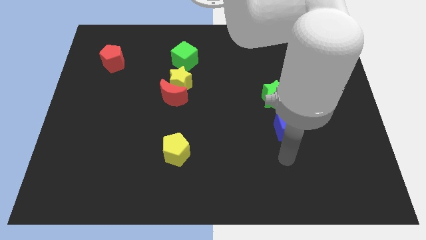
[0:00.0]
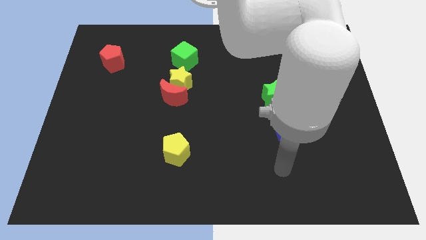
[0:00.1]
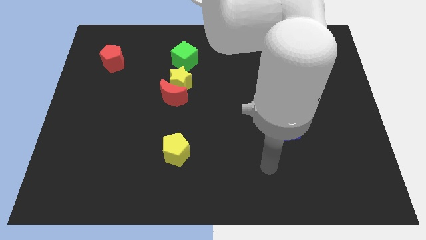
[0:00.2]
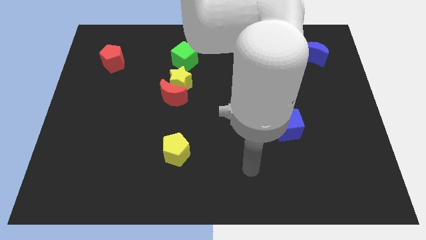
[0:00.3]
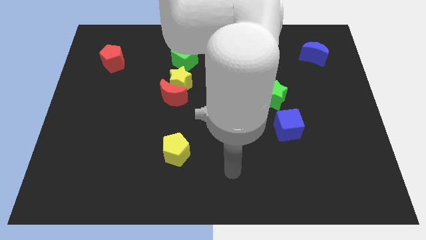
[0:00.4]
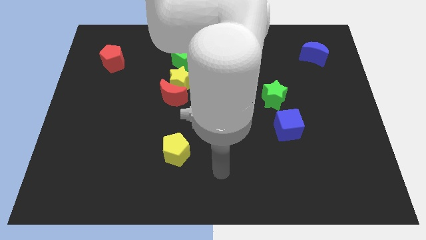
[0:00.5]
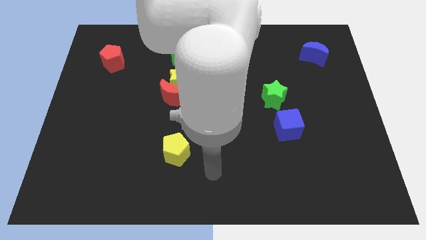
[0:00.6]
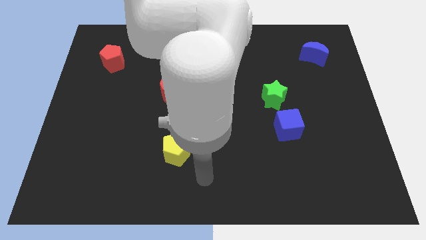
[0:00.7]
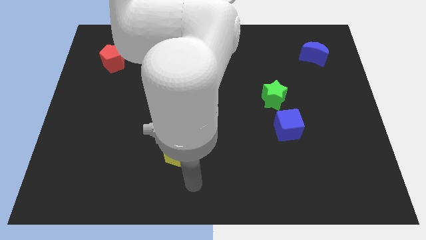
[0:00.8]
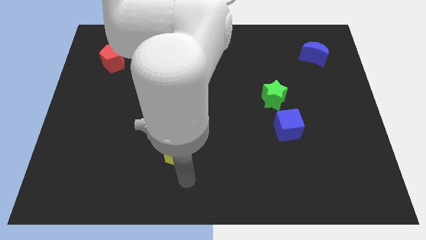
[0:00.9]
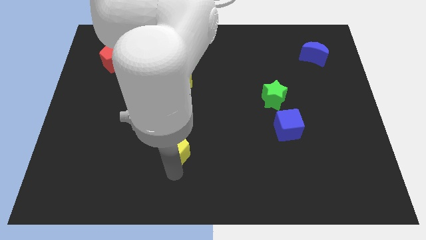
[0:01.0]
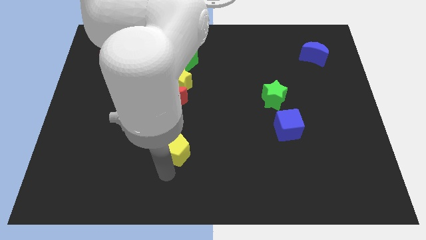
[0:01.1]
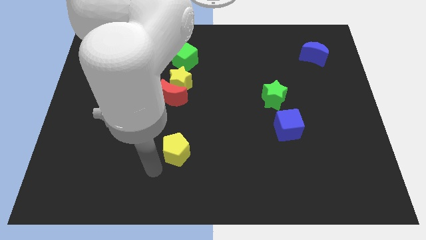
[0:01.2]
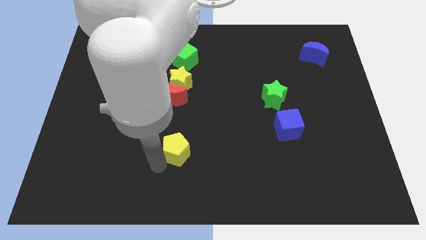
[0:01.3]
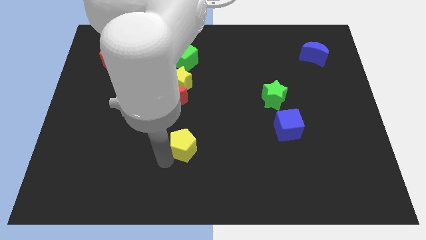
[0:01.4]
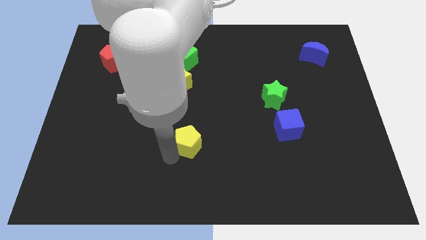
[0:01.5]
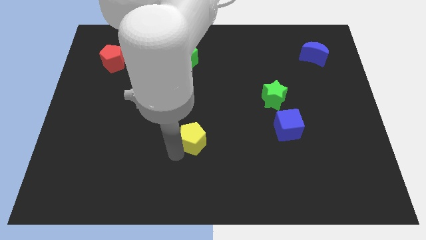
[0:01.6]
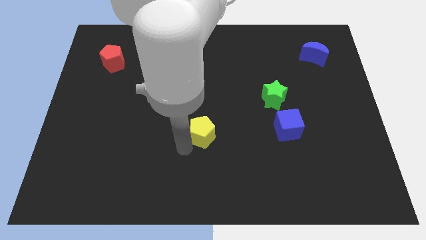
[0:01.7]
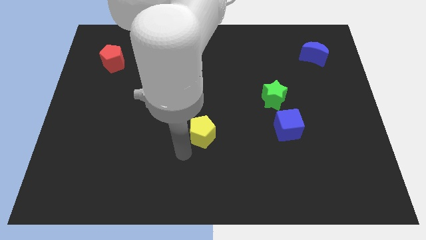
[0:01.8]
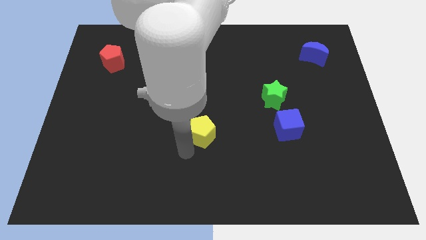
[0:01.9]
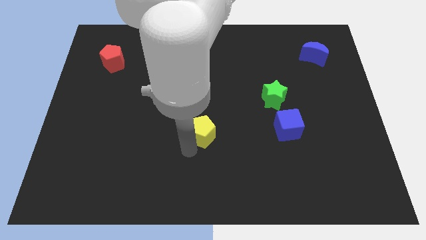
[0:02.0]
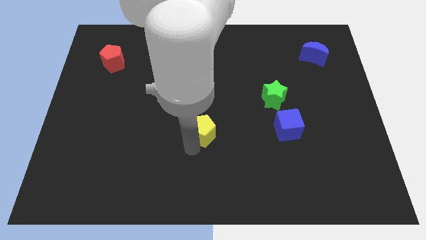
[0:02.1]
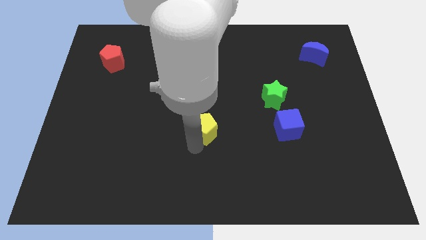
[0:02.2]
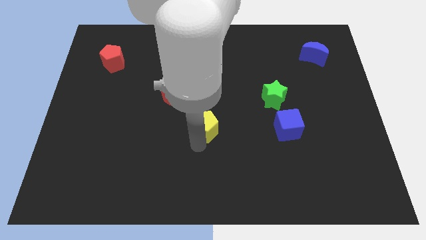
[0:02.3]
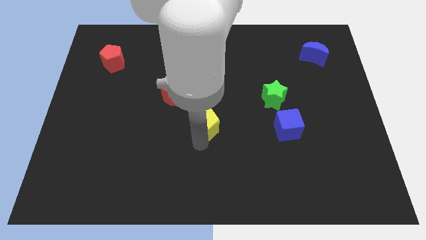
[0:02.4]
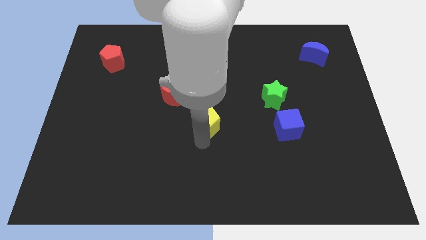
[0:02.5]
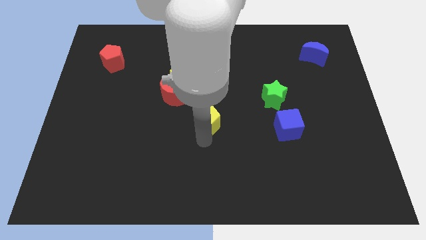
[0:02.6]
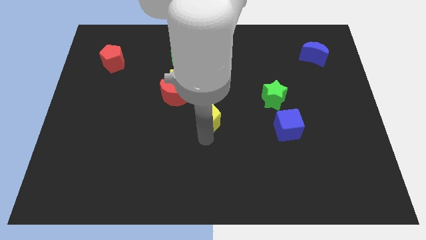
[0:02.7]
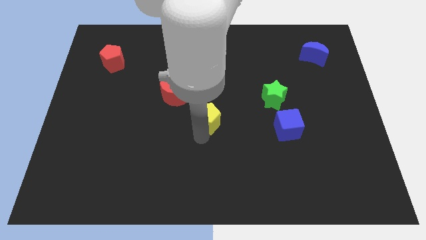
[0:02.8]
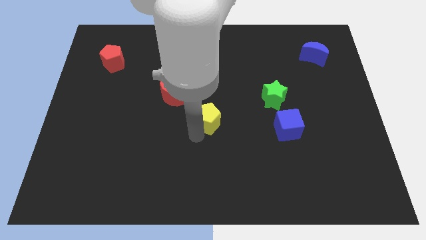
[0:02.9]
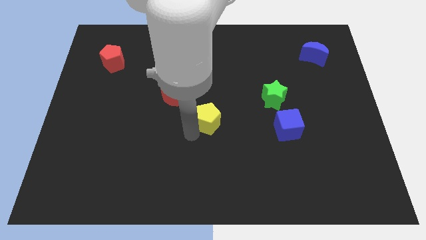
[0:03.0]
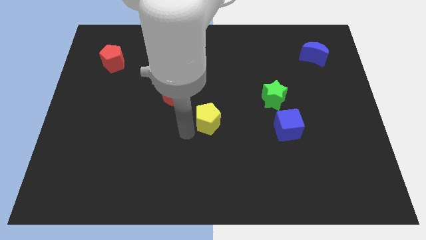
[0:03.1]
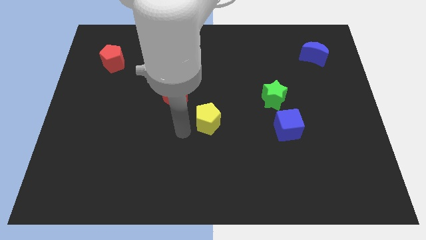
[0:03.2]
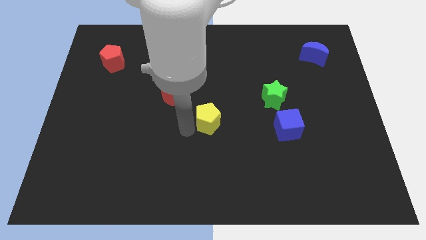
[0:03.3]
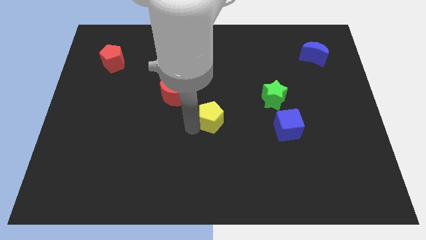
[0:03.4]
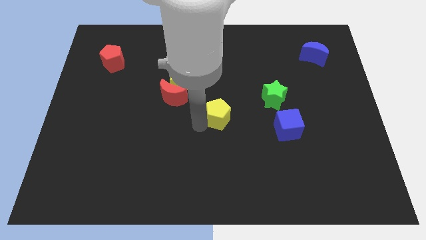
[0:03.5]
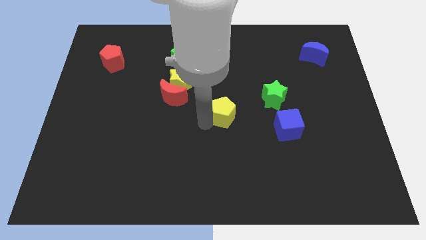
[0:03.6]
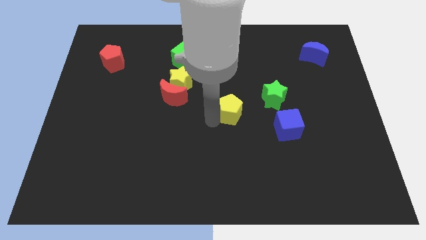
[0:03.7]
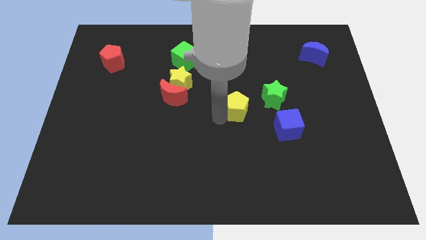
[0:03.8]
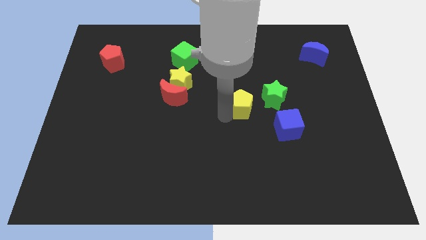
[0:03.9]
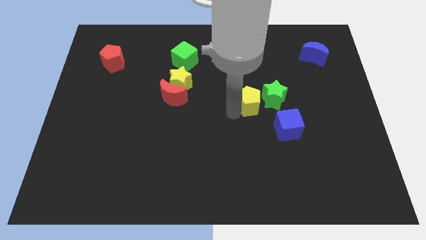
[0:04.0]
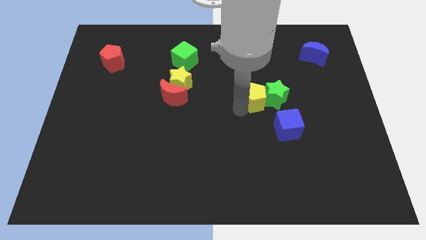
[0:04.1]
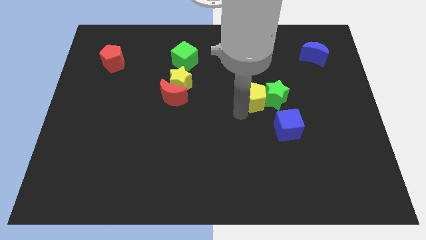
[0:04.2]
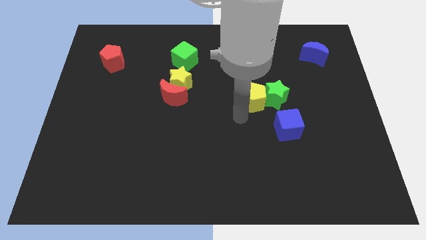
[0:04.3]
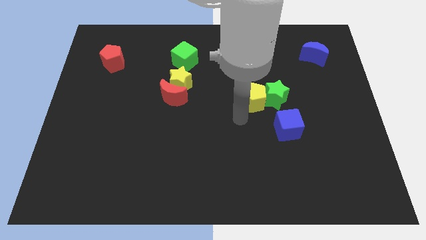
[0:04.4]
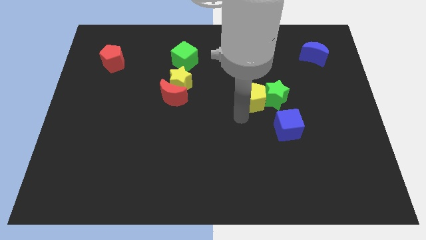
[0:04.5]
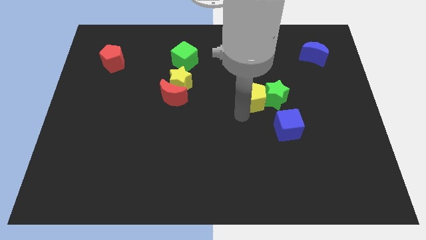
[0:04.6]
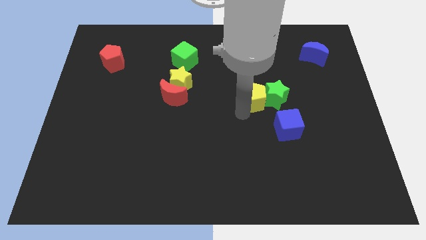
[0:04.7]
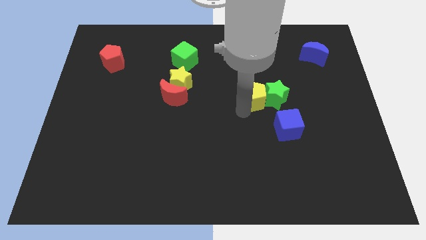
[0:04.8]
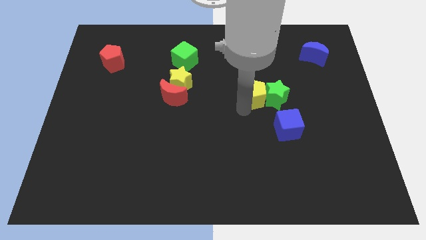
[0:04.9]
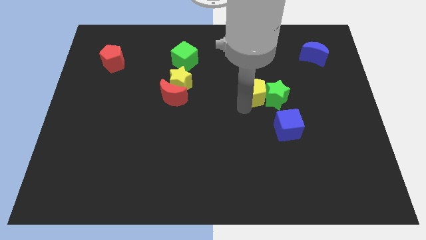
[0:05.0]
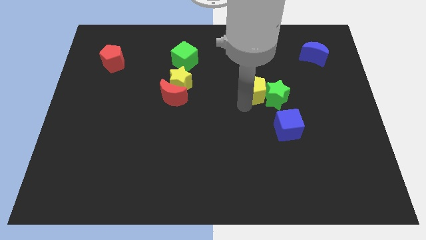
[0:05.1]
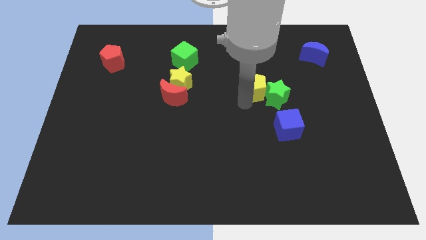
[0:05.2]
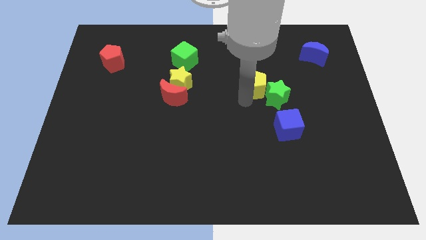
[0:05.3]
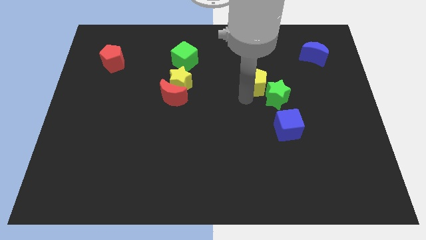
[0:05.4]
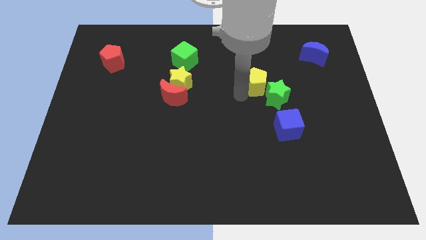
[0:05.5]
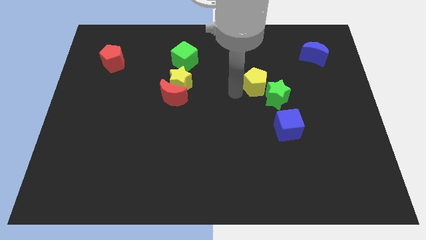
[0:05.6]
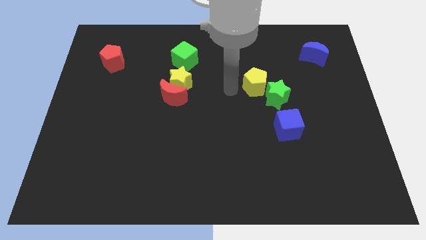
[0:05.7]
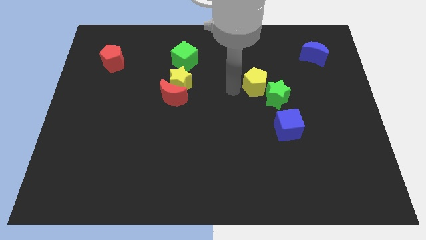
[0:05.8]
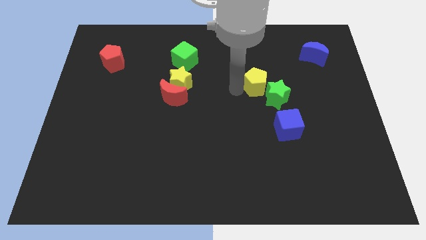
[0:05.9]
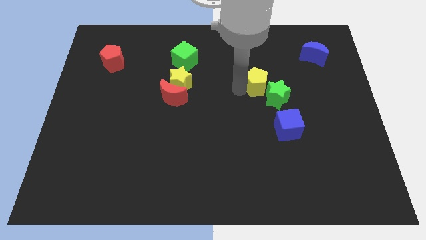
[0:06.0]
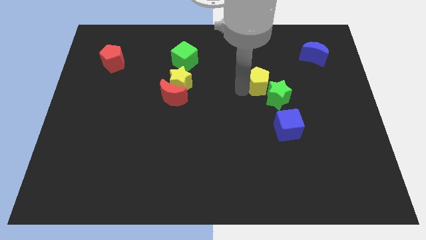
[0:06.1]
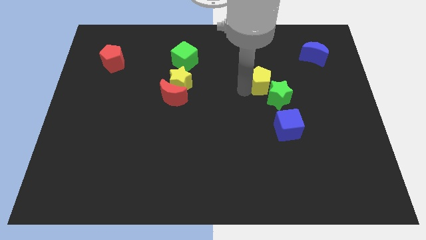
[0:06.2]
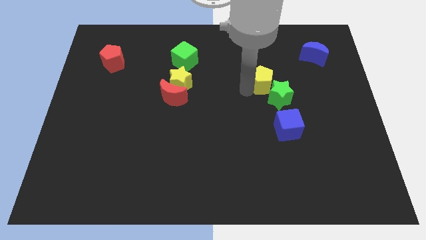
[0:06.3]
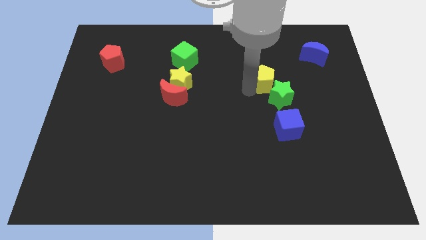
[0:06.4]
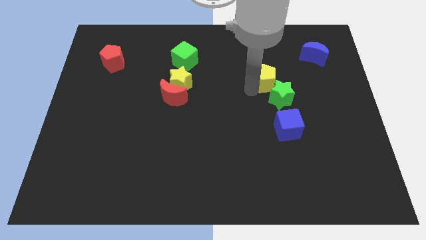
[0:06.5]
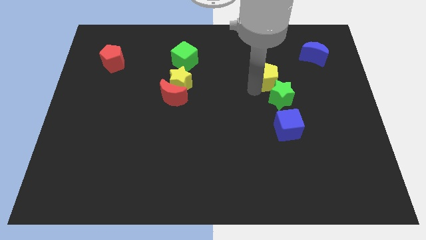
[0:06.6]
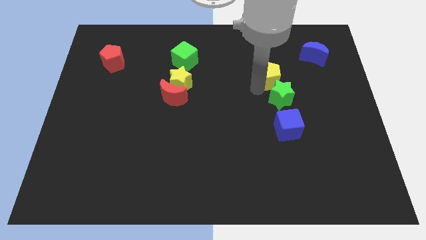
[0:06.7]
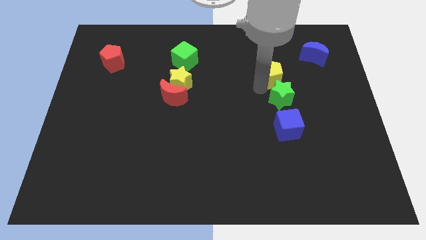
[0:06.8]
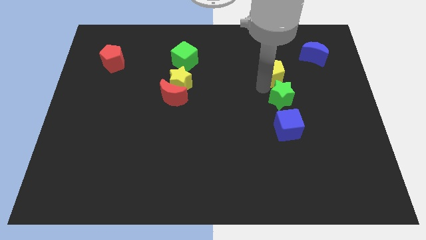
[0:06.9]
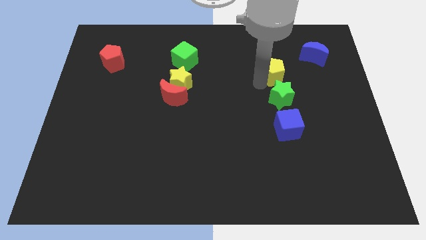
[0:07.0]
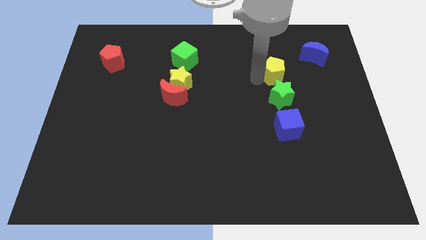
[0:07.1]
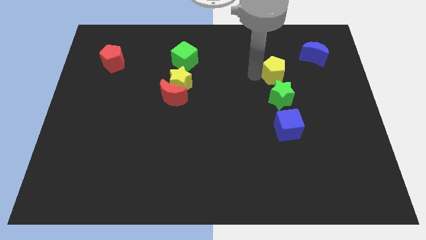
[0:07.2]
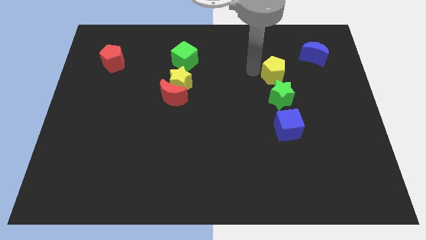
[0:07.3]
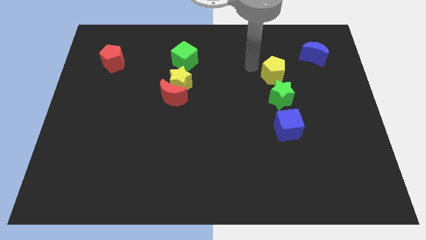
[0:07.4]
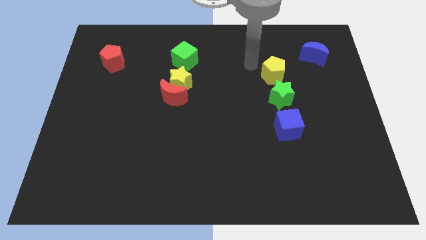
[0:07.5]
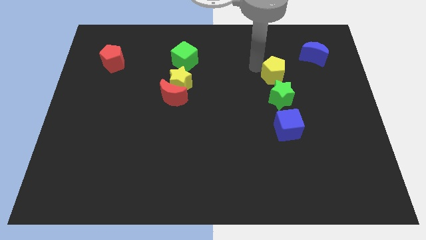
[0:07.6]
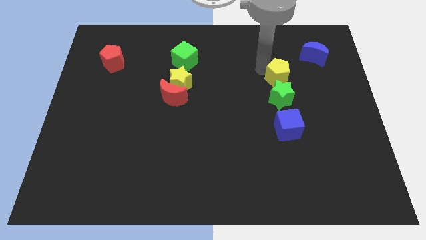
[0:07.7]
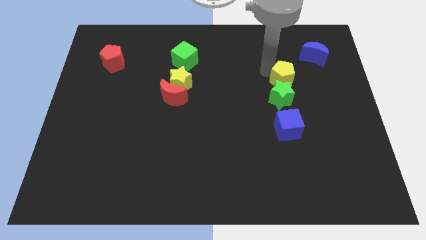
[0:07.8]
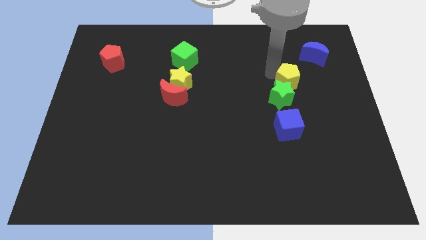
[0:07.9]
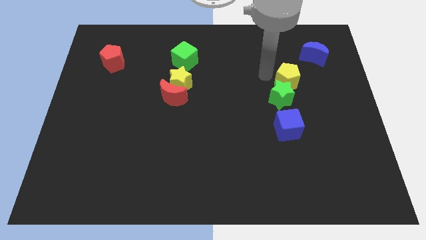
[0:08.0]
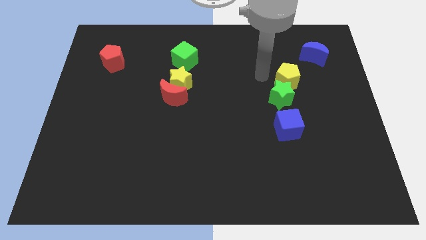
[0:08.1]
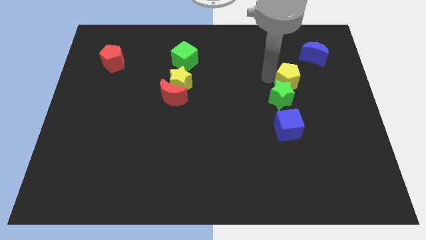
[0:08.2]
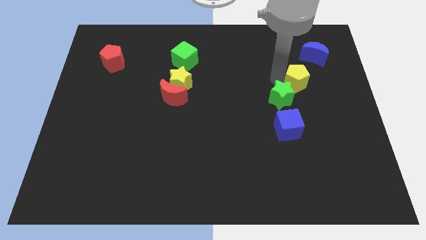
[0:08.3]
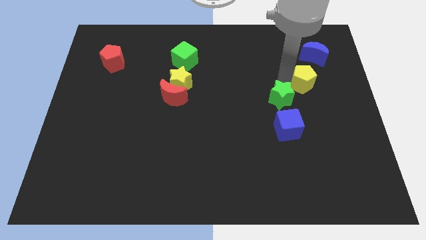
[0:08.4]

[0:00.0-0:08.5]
move the yellow pentagon to the bottom of the blue moon
